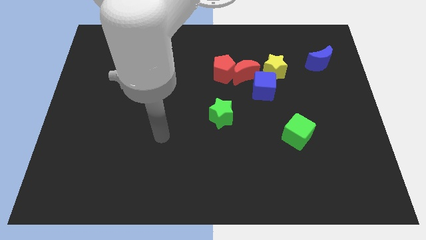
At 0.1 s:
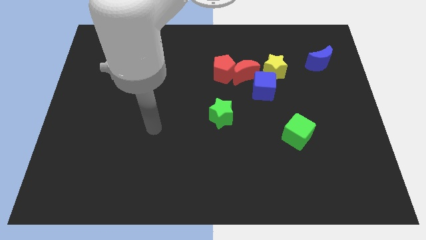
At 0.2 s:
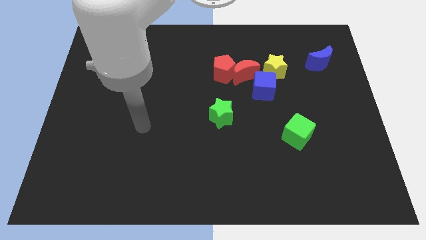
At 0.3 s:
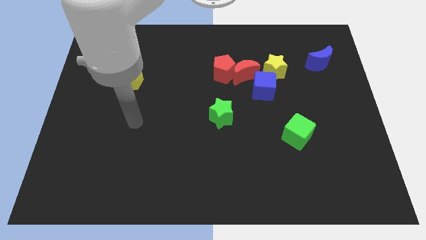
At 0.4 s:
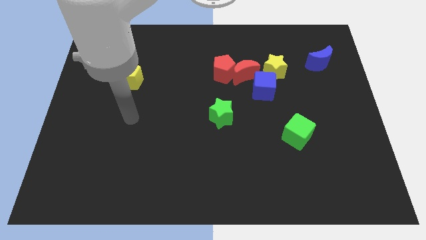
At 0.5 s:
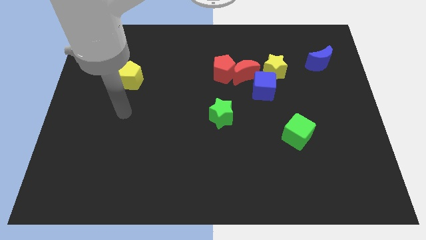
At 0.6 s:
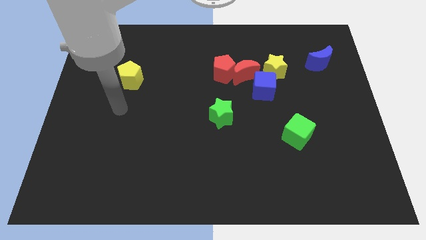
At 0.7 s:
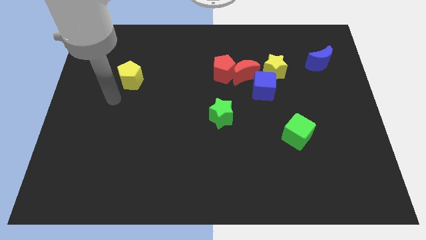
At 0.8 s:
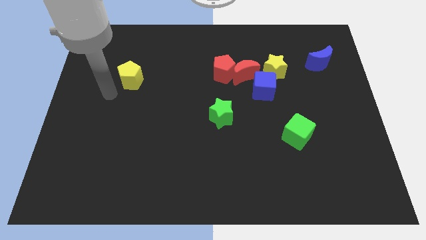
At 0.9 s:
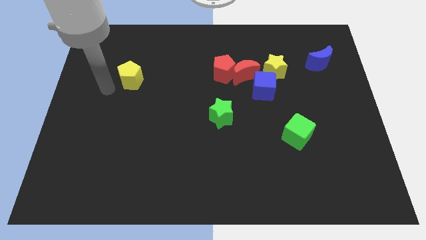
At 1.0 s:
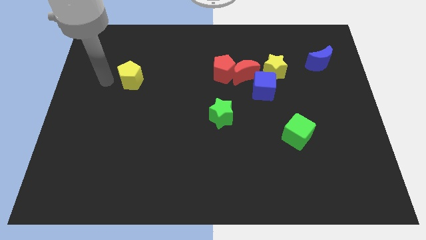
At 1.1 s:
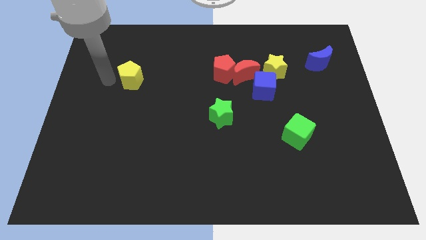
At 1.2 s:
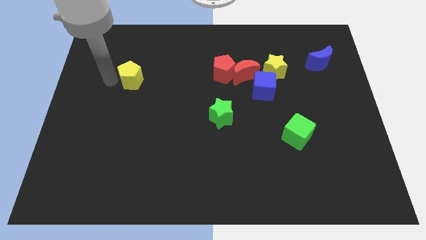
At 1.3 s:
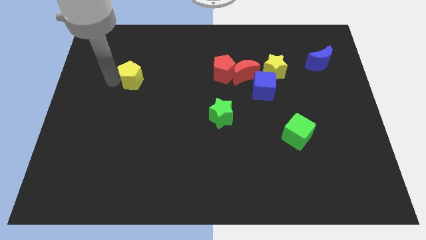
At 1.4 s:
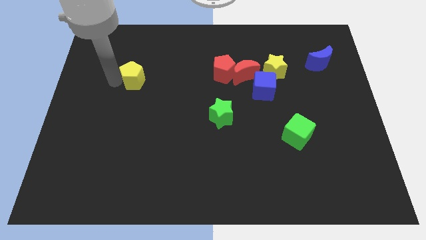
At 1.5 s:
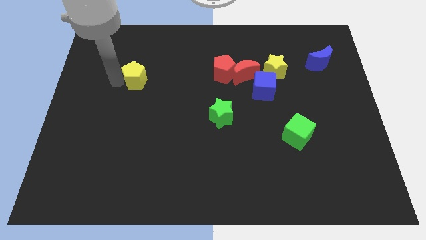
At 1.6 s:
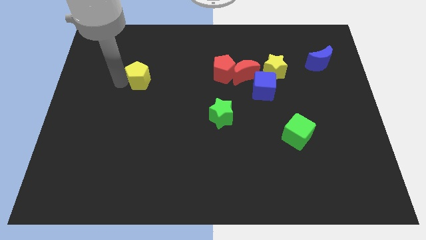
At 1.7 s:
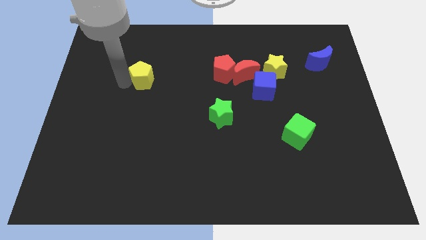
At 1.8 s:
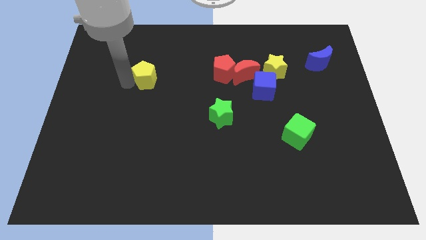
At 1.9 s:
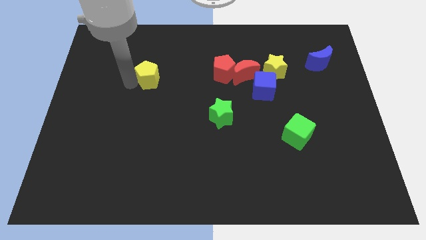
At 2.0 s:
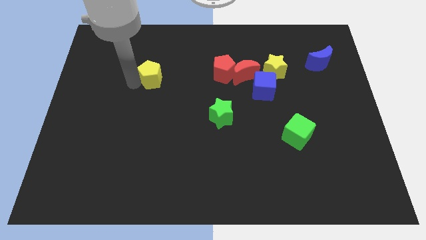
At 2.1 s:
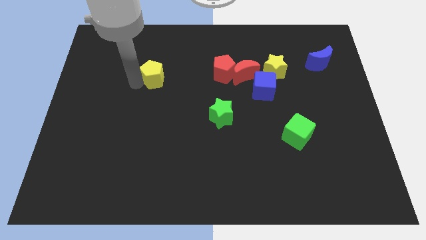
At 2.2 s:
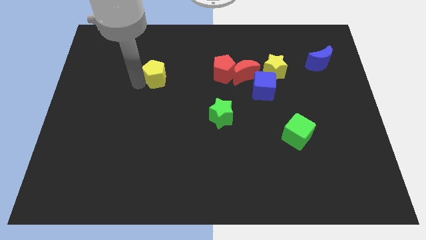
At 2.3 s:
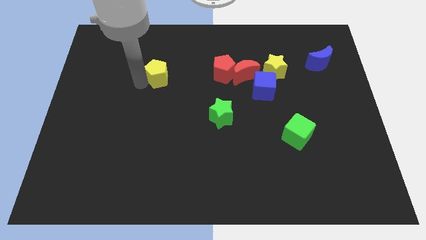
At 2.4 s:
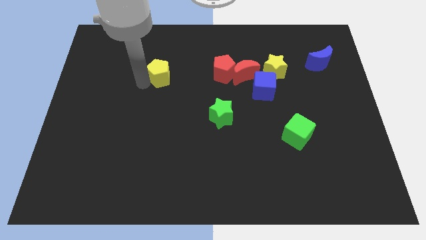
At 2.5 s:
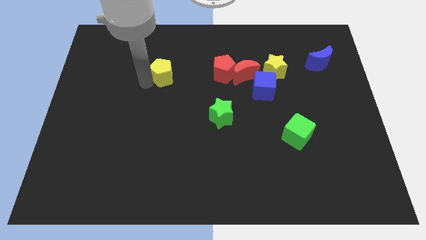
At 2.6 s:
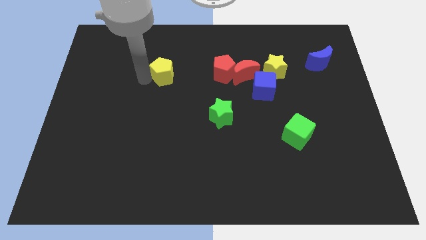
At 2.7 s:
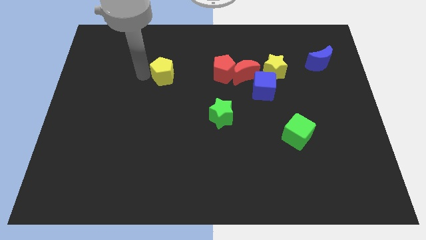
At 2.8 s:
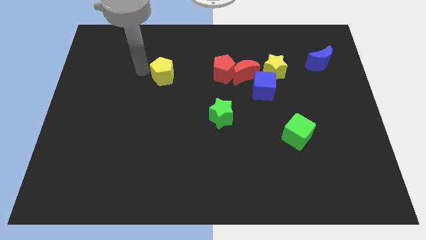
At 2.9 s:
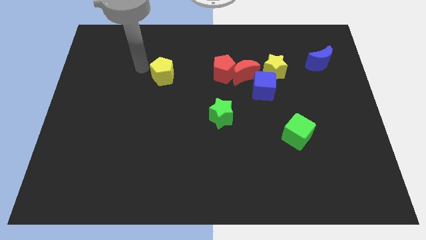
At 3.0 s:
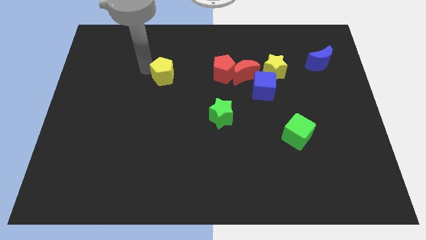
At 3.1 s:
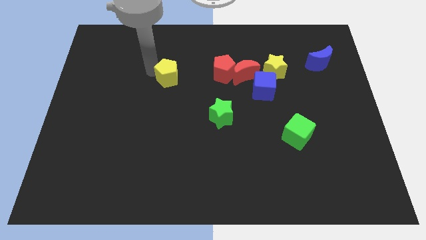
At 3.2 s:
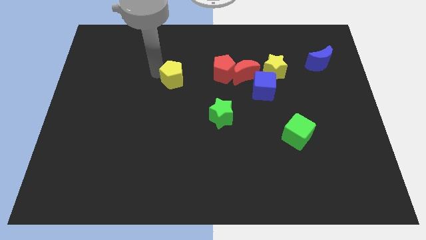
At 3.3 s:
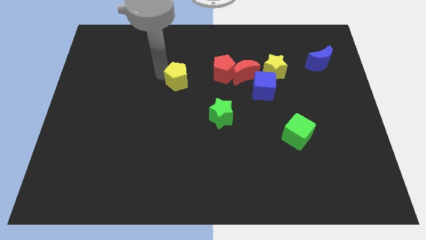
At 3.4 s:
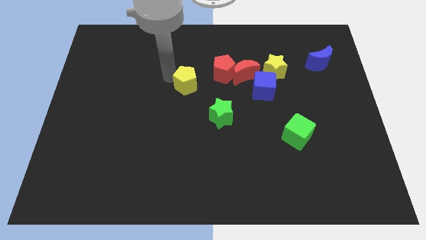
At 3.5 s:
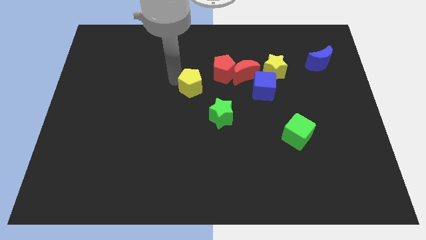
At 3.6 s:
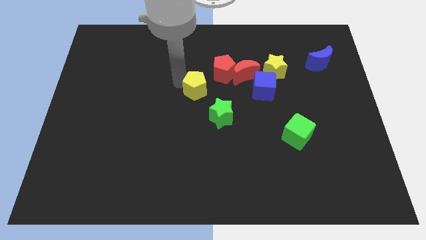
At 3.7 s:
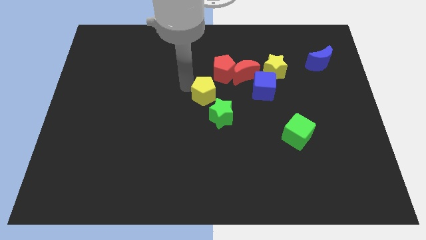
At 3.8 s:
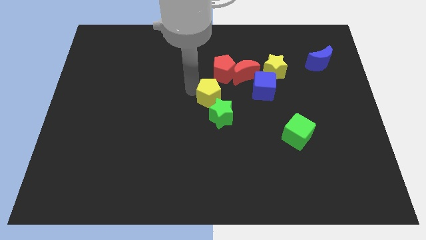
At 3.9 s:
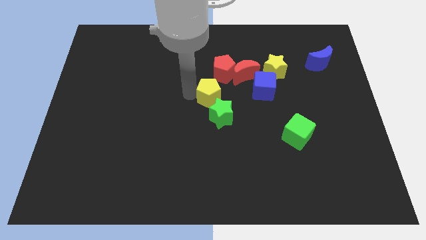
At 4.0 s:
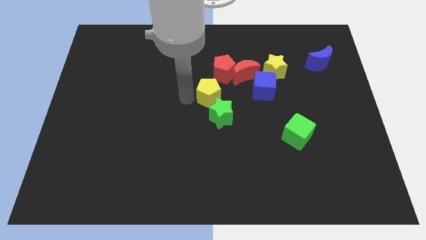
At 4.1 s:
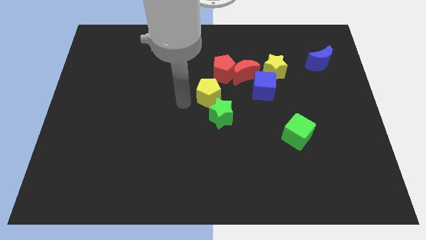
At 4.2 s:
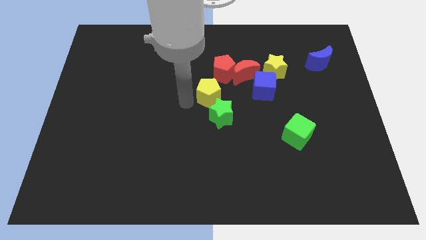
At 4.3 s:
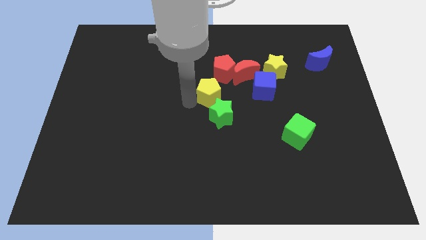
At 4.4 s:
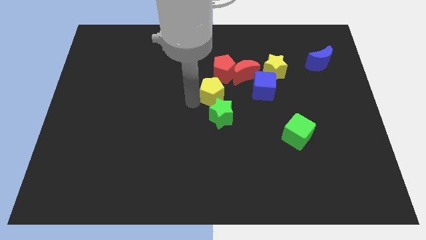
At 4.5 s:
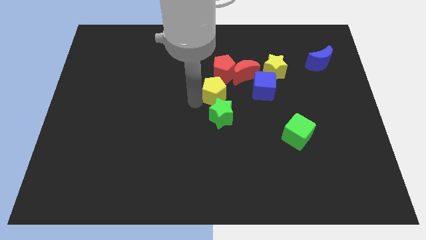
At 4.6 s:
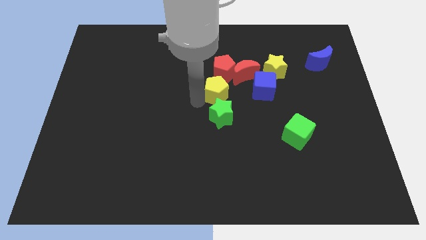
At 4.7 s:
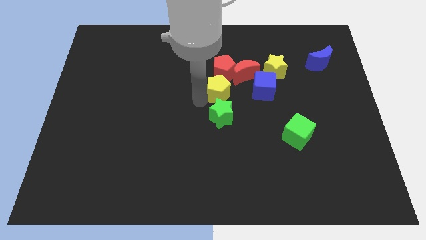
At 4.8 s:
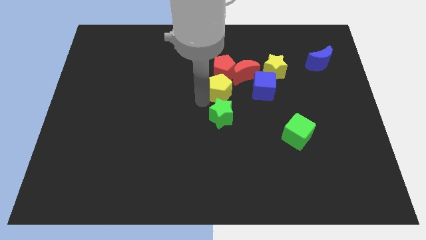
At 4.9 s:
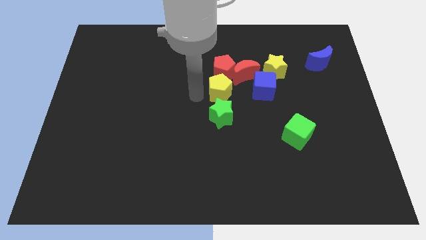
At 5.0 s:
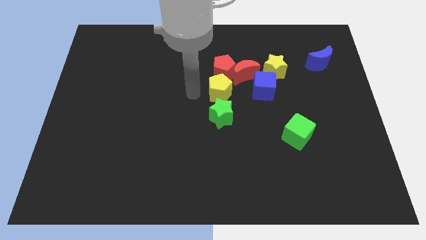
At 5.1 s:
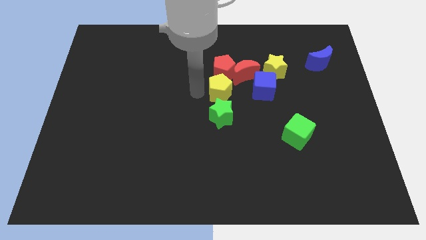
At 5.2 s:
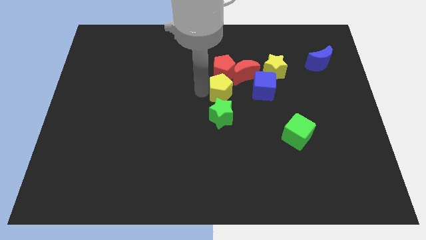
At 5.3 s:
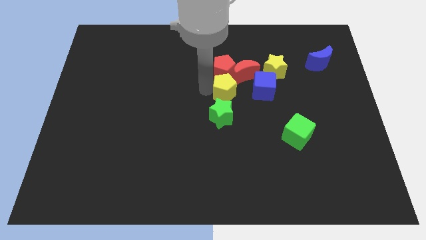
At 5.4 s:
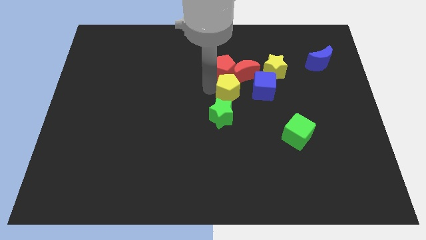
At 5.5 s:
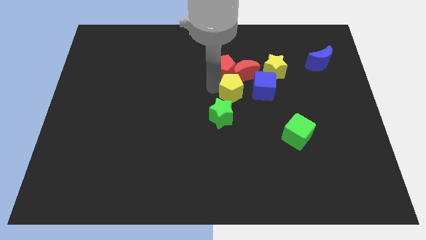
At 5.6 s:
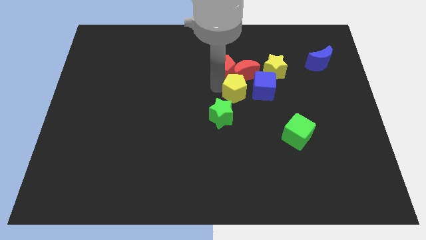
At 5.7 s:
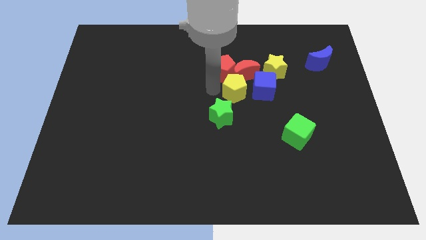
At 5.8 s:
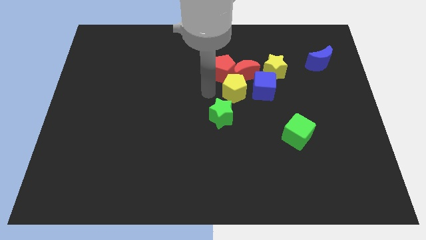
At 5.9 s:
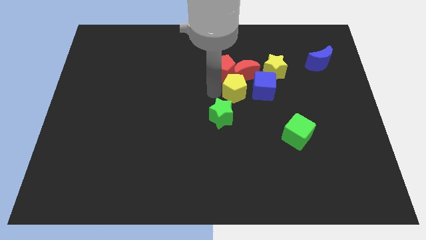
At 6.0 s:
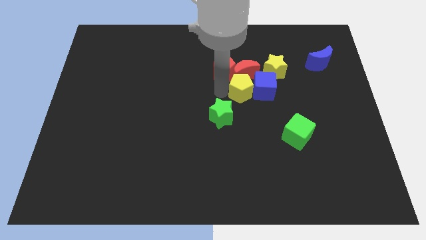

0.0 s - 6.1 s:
slide the yellow pentagon next to the blue cube

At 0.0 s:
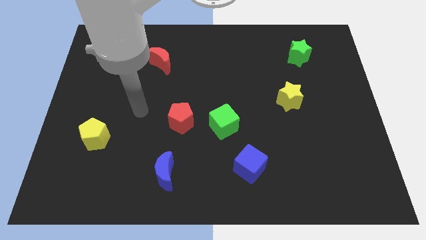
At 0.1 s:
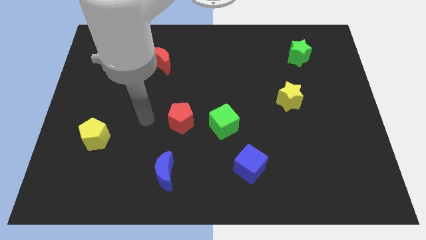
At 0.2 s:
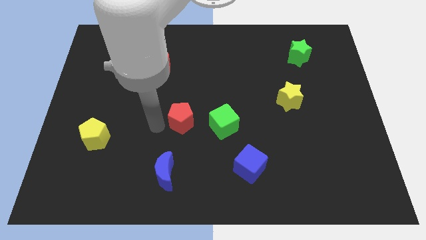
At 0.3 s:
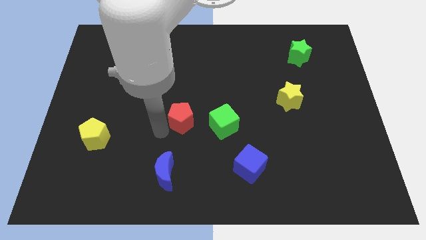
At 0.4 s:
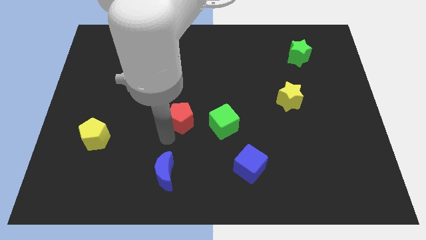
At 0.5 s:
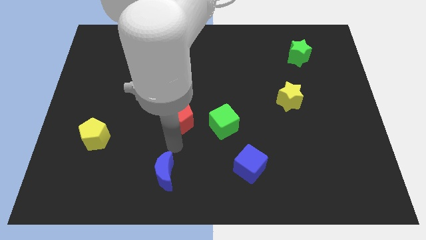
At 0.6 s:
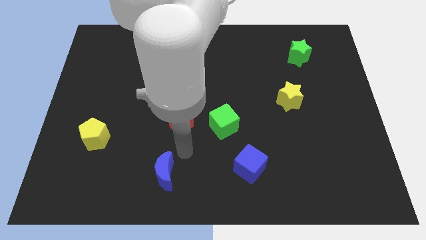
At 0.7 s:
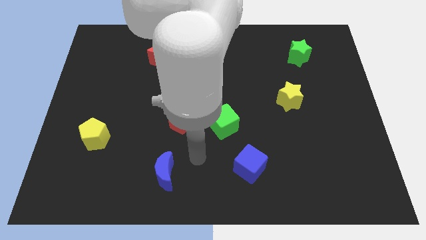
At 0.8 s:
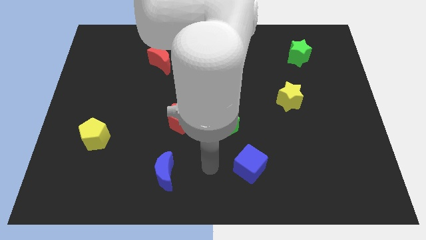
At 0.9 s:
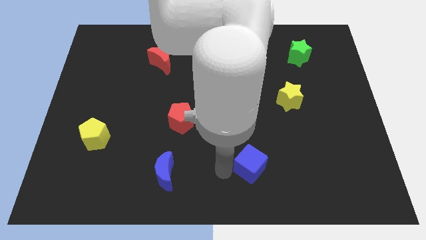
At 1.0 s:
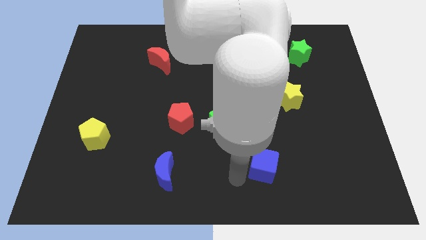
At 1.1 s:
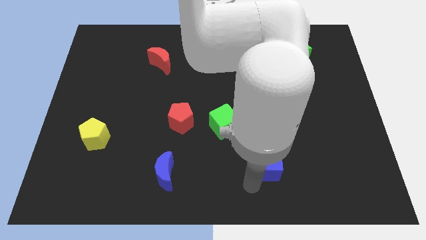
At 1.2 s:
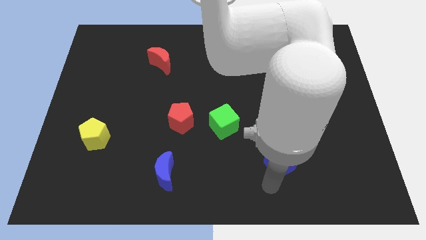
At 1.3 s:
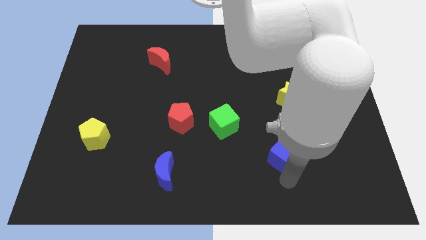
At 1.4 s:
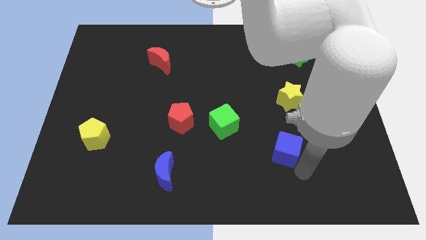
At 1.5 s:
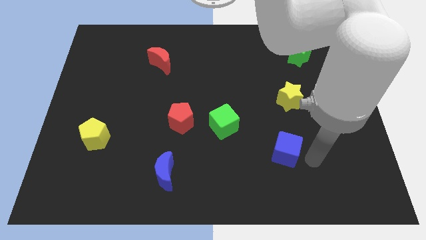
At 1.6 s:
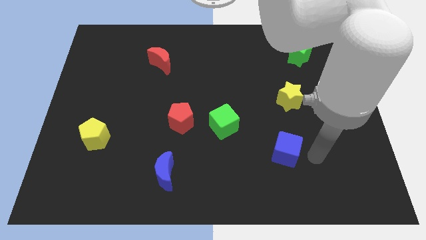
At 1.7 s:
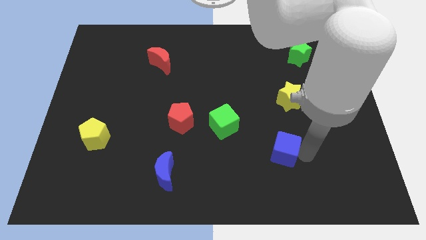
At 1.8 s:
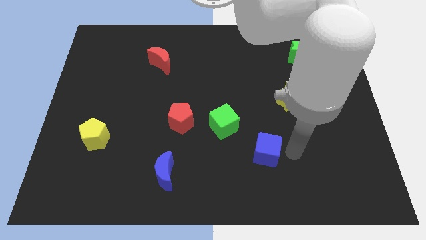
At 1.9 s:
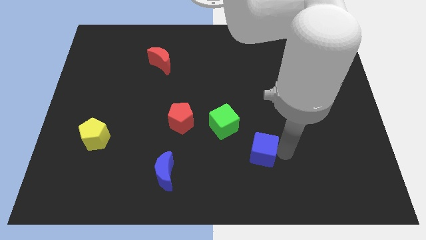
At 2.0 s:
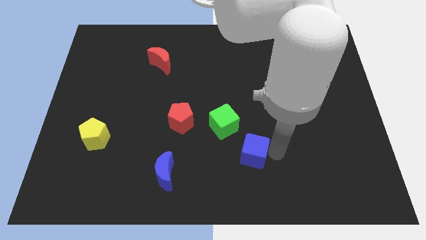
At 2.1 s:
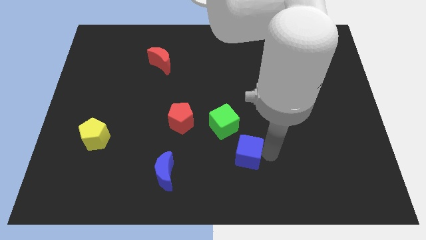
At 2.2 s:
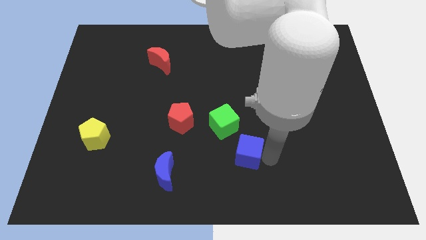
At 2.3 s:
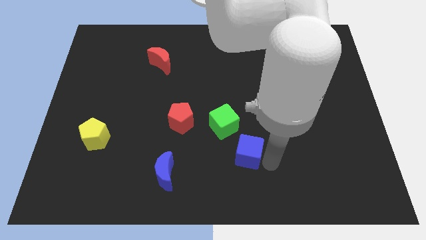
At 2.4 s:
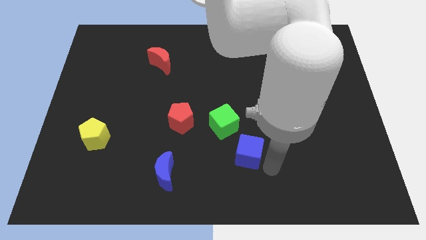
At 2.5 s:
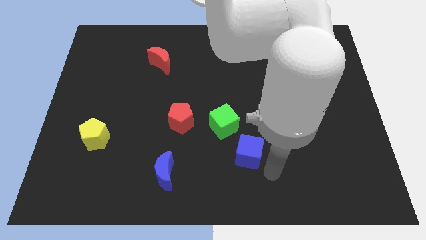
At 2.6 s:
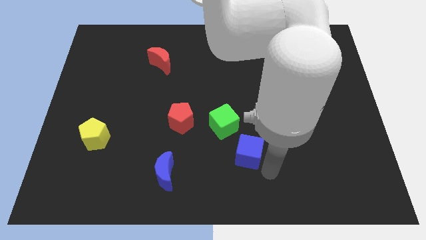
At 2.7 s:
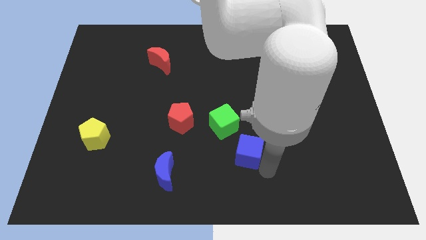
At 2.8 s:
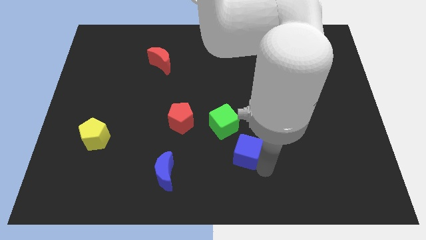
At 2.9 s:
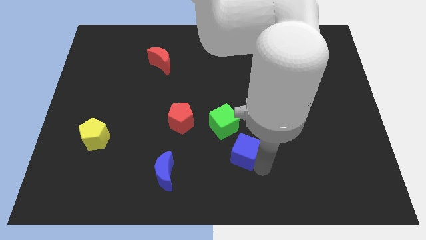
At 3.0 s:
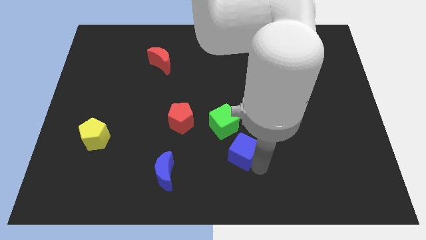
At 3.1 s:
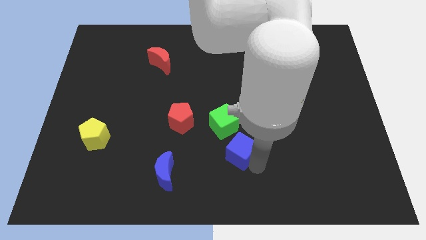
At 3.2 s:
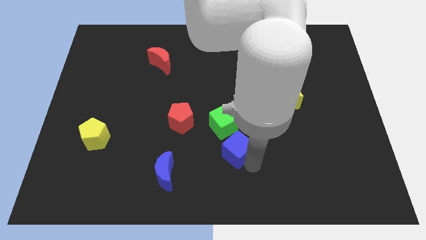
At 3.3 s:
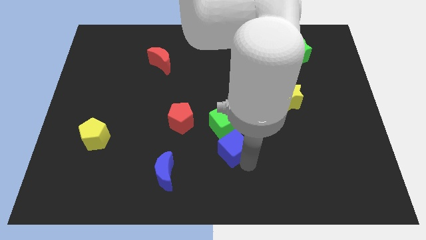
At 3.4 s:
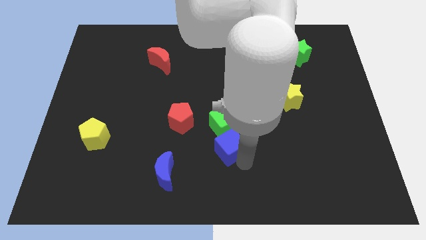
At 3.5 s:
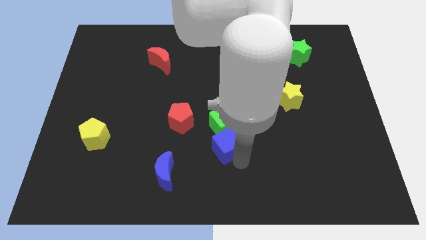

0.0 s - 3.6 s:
put the blue cube next to the green cube
